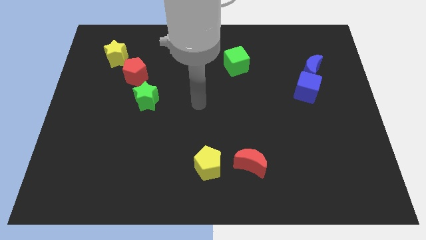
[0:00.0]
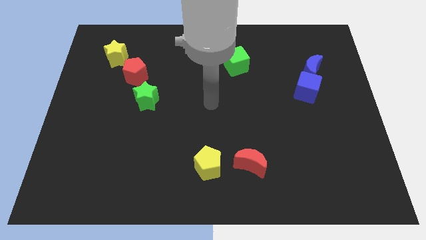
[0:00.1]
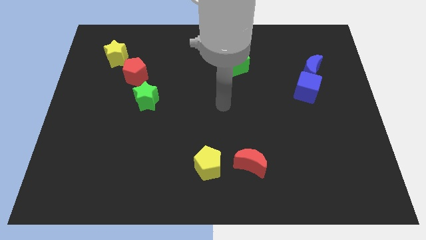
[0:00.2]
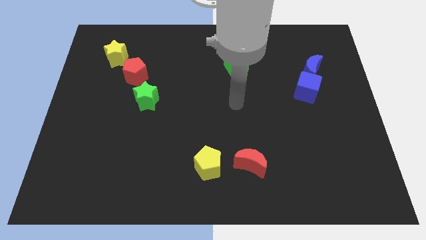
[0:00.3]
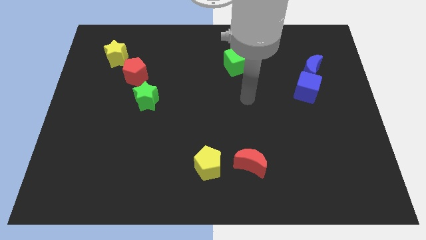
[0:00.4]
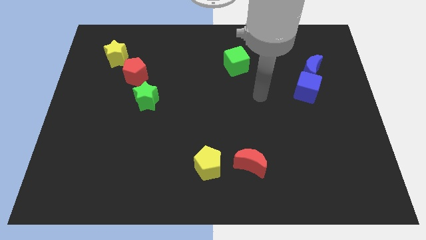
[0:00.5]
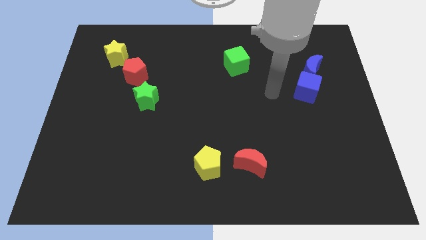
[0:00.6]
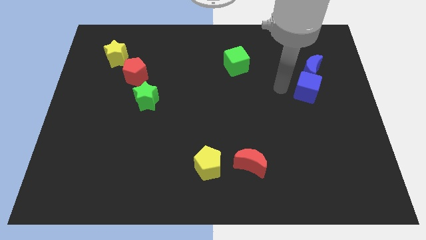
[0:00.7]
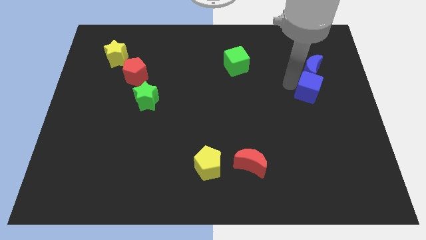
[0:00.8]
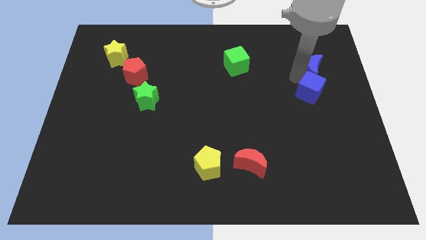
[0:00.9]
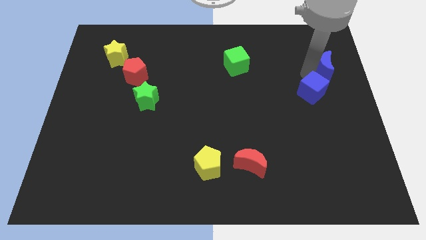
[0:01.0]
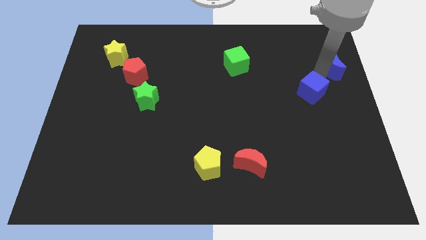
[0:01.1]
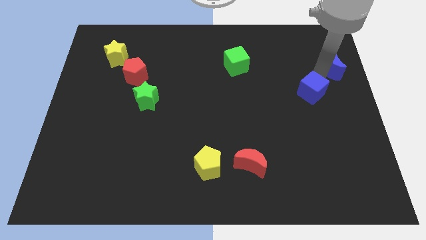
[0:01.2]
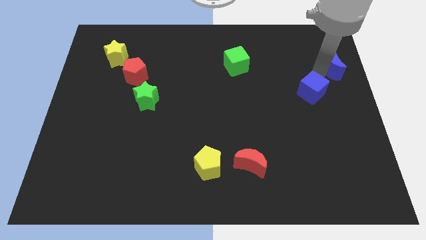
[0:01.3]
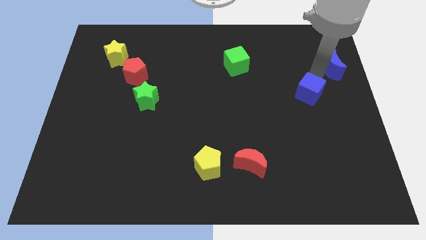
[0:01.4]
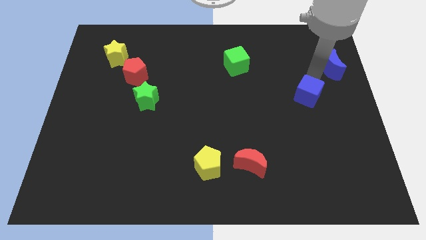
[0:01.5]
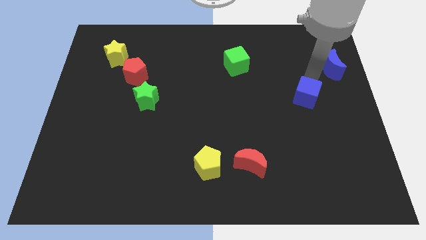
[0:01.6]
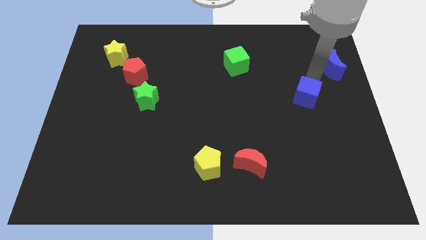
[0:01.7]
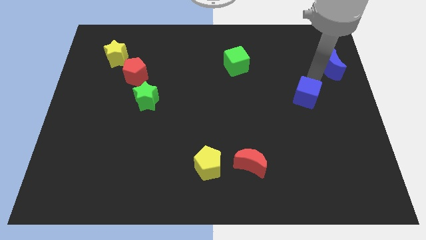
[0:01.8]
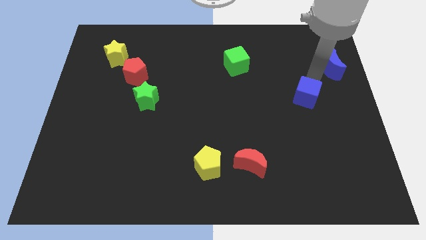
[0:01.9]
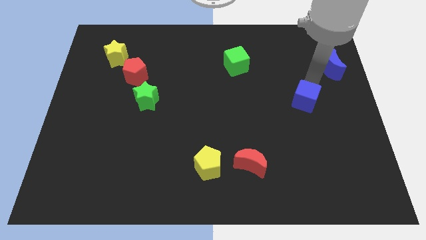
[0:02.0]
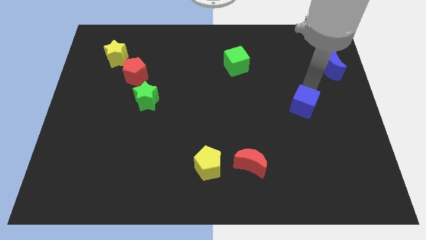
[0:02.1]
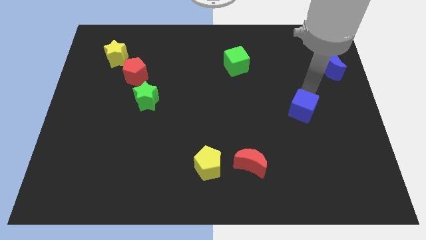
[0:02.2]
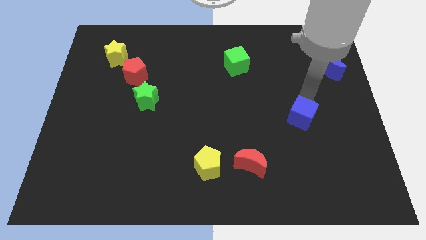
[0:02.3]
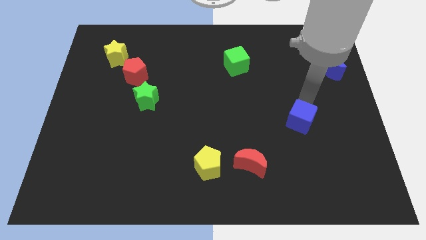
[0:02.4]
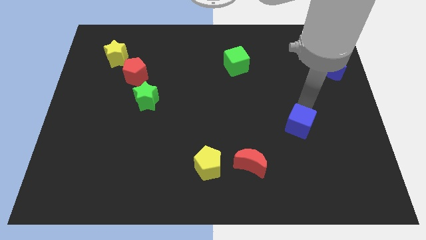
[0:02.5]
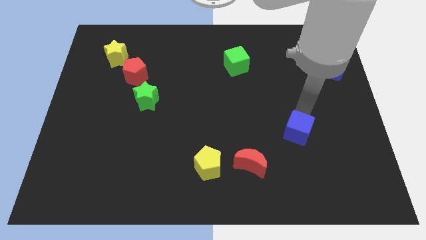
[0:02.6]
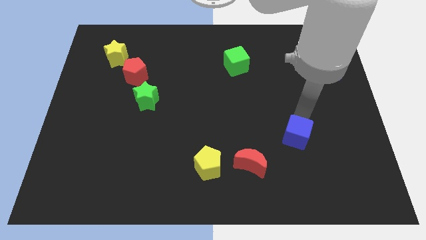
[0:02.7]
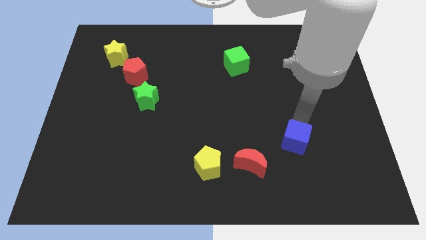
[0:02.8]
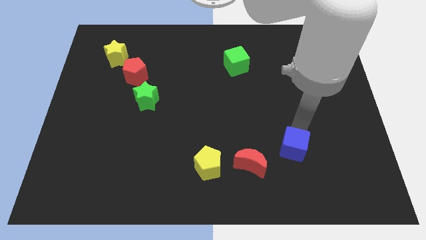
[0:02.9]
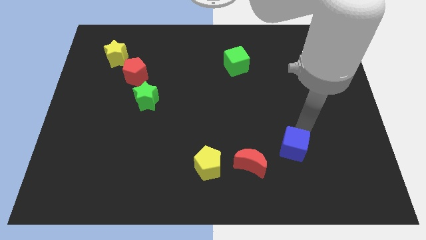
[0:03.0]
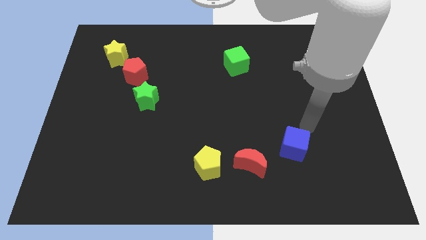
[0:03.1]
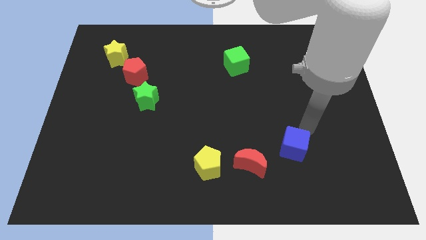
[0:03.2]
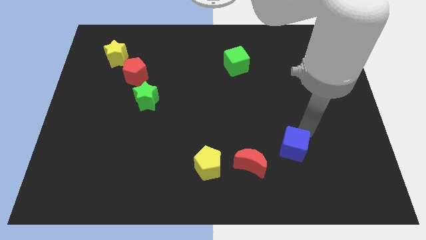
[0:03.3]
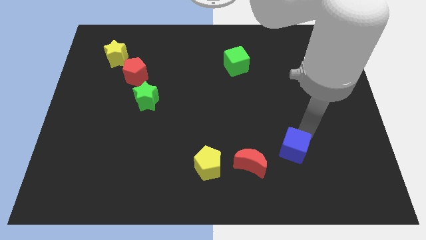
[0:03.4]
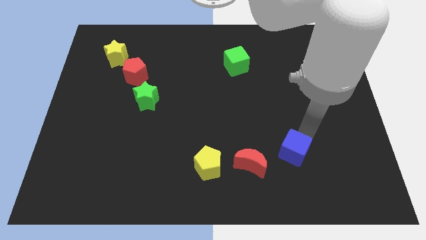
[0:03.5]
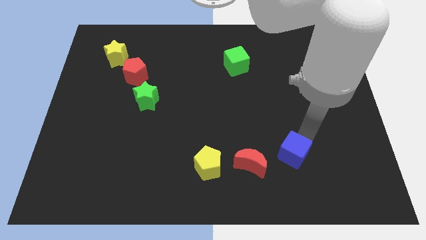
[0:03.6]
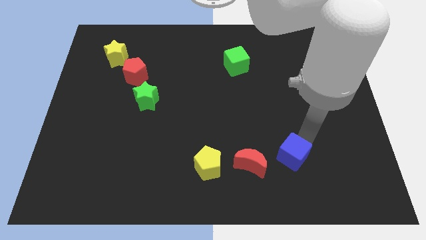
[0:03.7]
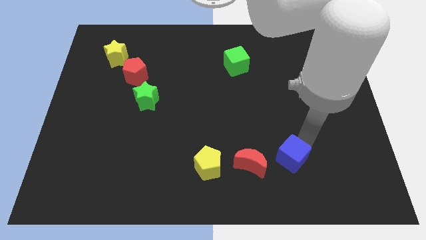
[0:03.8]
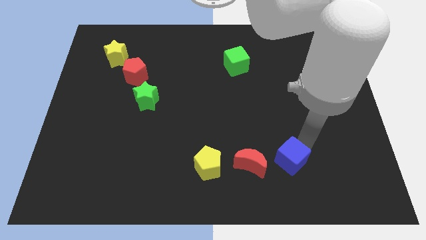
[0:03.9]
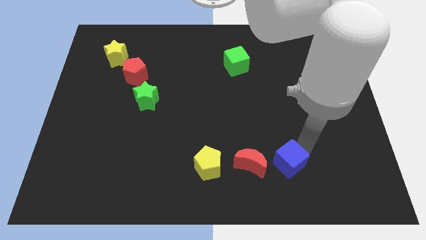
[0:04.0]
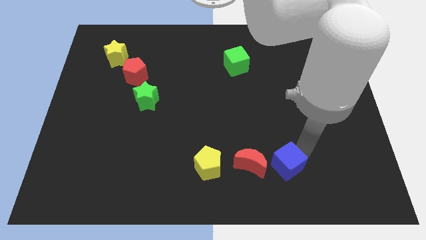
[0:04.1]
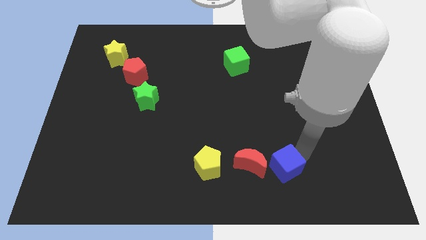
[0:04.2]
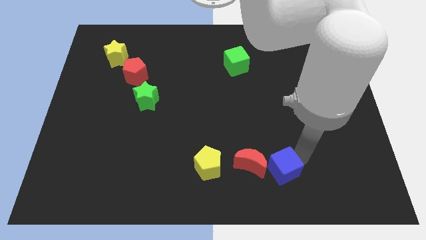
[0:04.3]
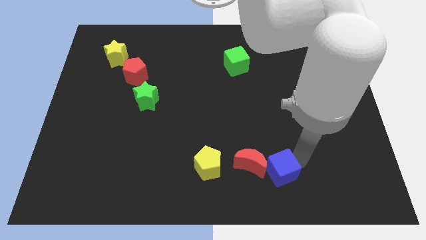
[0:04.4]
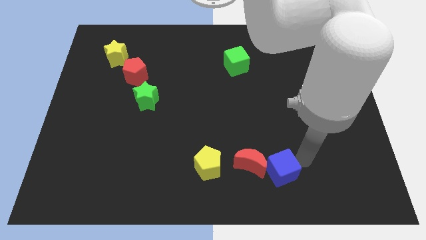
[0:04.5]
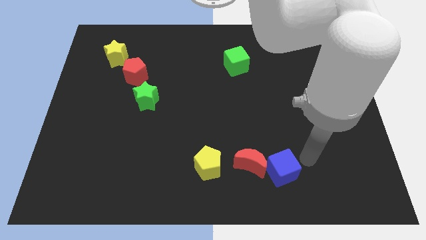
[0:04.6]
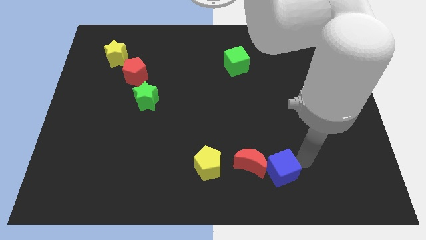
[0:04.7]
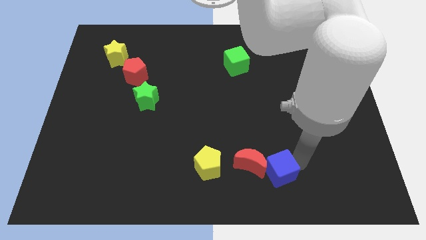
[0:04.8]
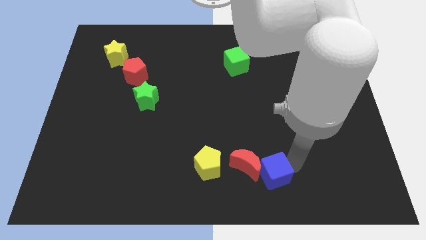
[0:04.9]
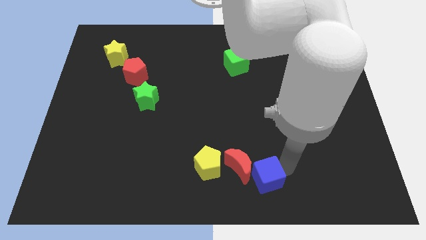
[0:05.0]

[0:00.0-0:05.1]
put the blue cube to the bottom side

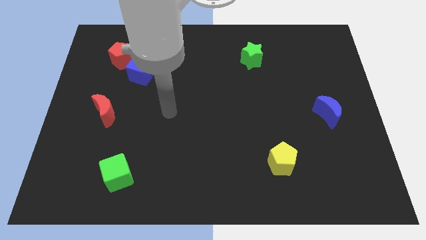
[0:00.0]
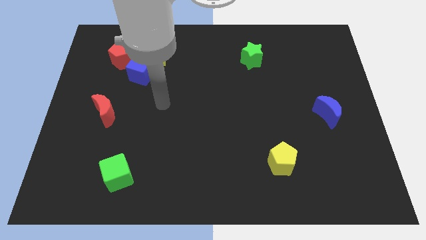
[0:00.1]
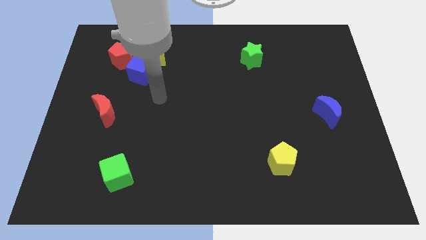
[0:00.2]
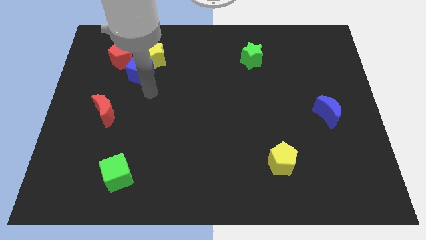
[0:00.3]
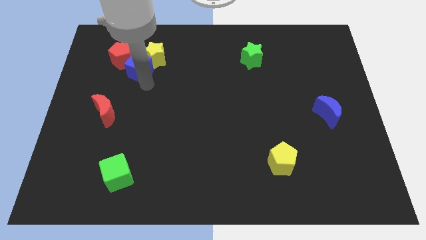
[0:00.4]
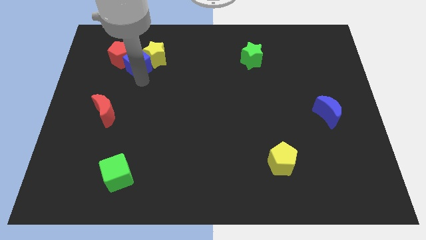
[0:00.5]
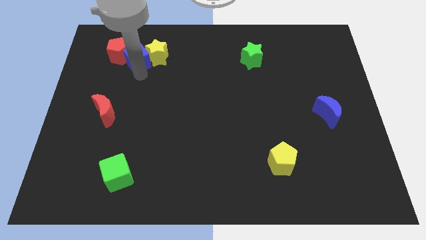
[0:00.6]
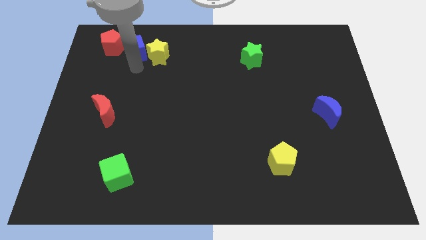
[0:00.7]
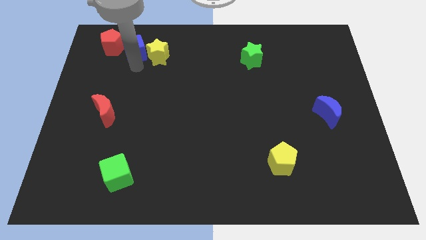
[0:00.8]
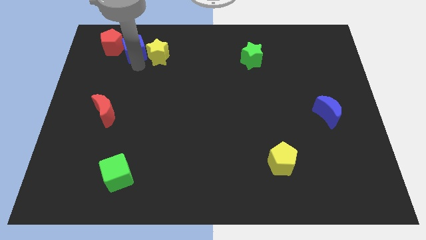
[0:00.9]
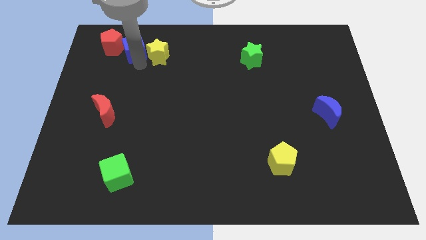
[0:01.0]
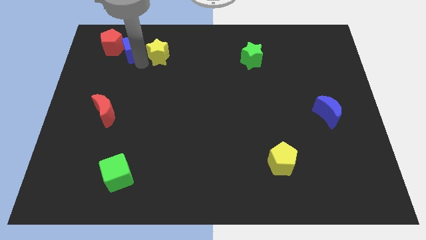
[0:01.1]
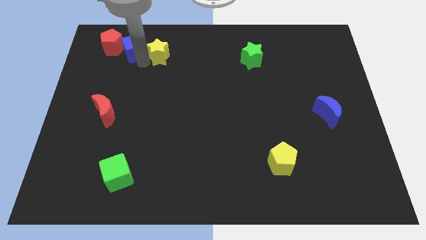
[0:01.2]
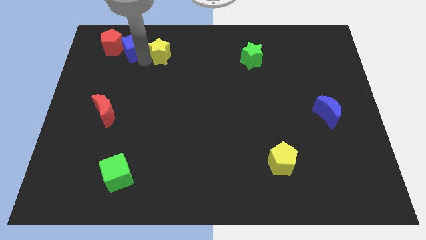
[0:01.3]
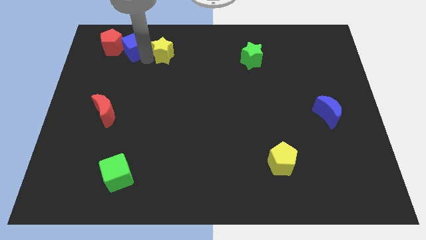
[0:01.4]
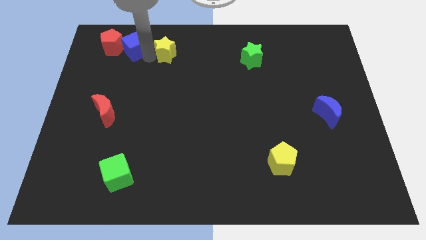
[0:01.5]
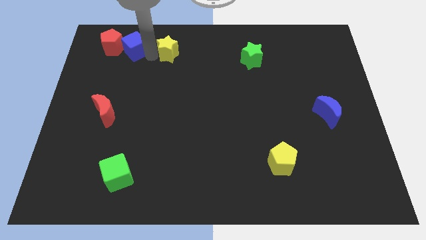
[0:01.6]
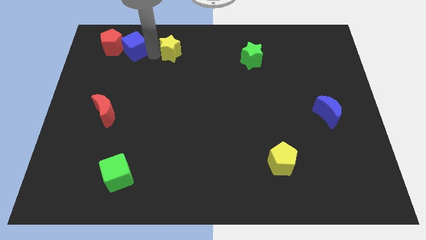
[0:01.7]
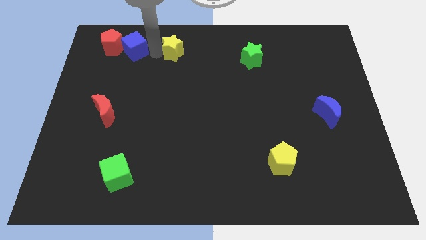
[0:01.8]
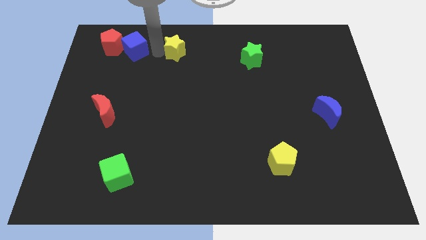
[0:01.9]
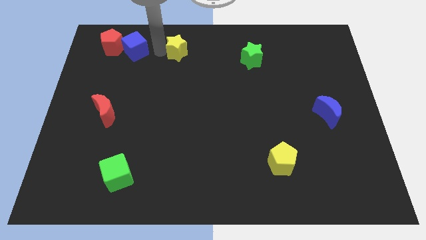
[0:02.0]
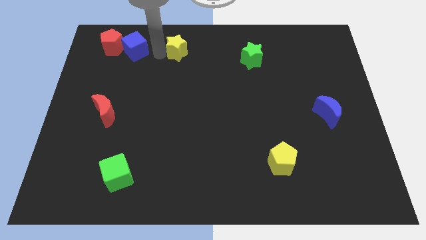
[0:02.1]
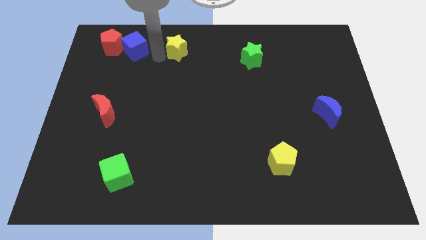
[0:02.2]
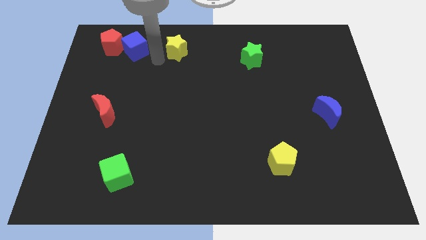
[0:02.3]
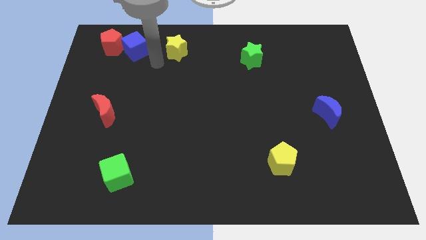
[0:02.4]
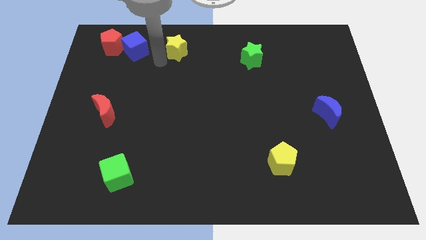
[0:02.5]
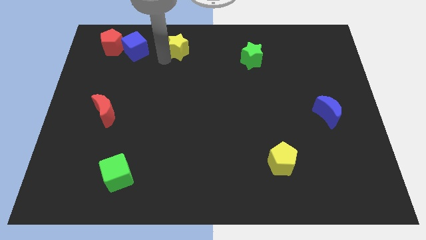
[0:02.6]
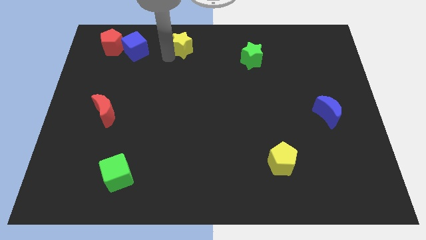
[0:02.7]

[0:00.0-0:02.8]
move the yellow star to the towards your base
